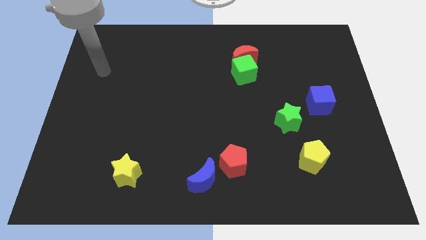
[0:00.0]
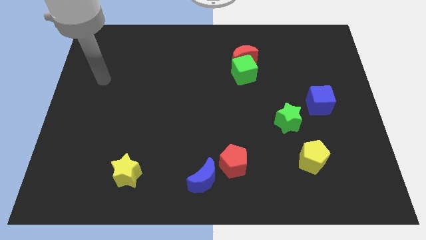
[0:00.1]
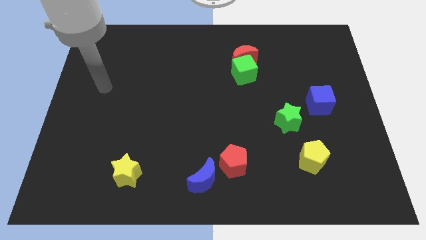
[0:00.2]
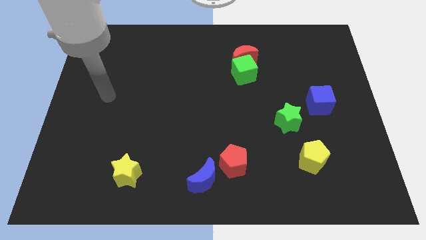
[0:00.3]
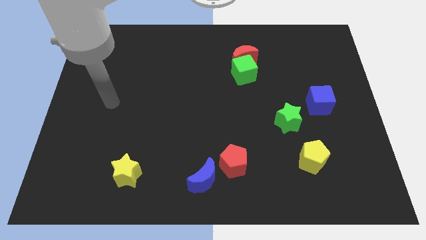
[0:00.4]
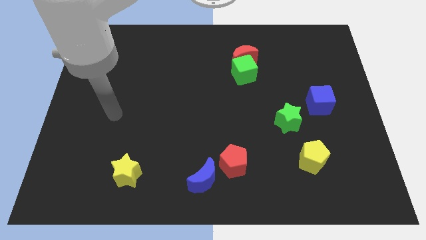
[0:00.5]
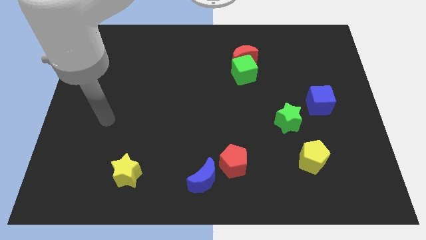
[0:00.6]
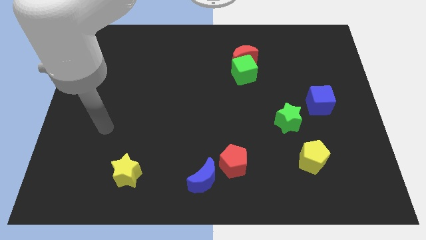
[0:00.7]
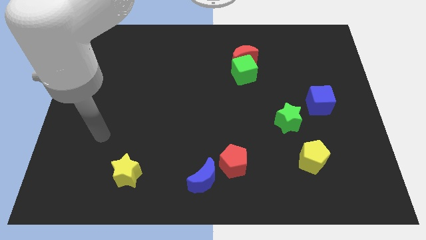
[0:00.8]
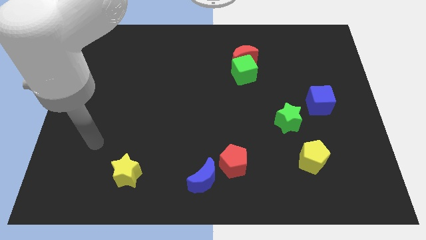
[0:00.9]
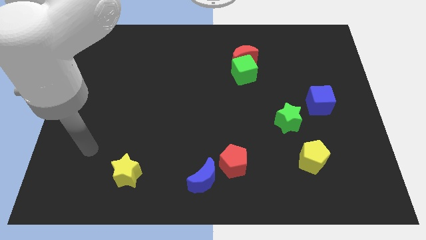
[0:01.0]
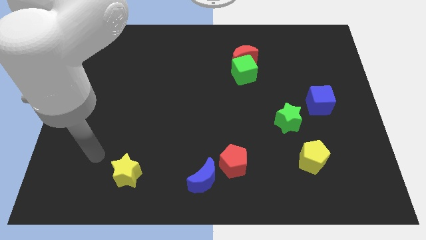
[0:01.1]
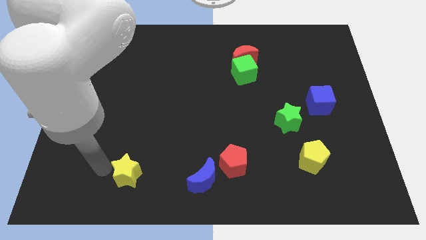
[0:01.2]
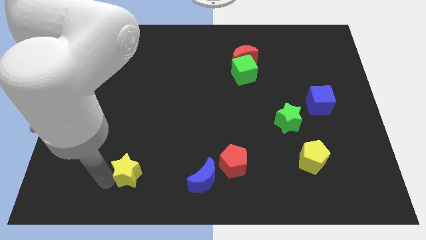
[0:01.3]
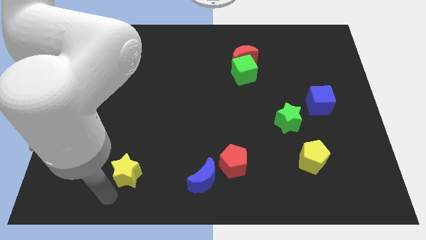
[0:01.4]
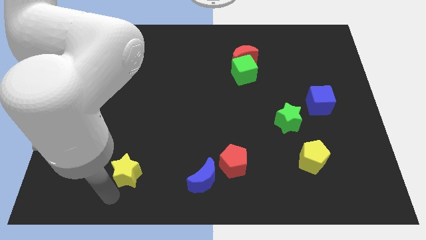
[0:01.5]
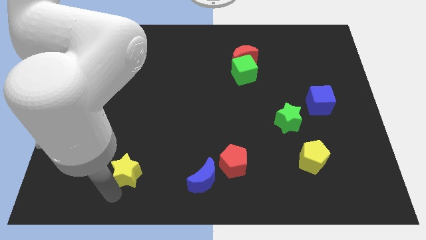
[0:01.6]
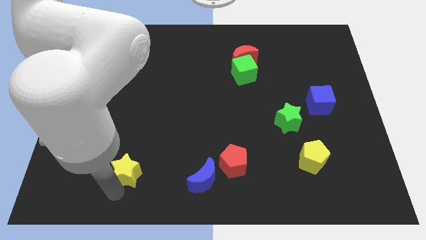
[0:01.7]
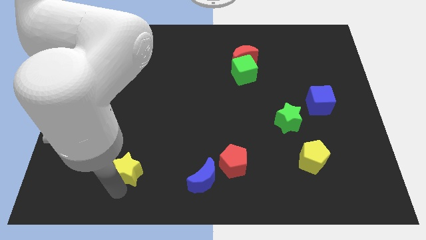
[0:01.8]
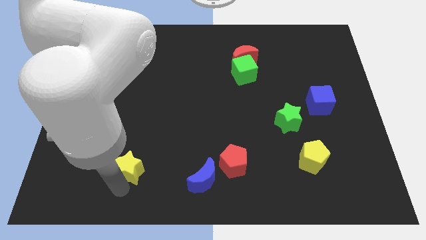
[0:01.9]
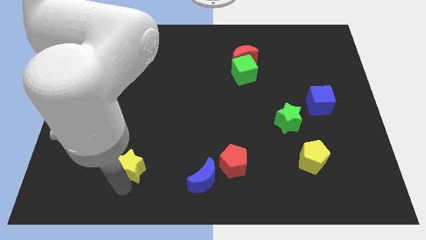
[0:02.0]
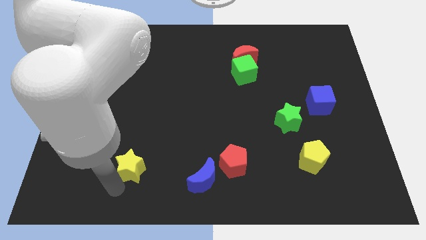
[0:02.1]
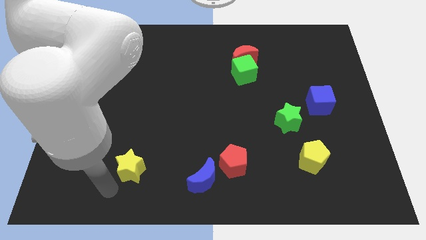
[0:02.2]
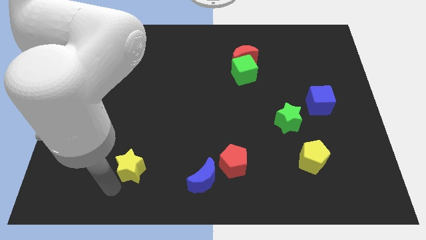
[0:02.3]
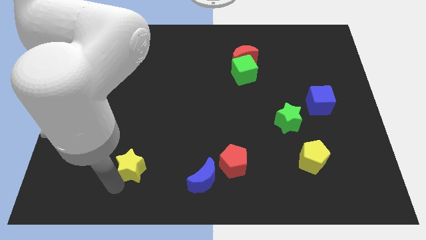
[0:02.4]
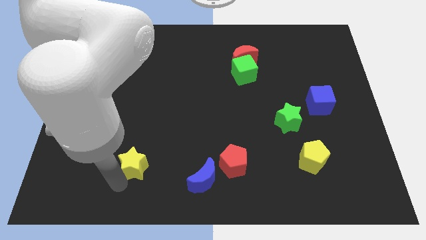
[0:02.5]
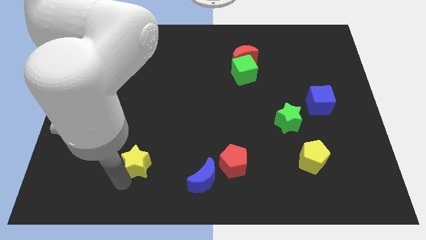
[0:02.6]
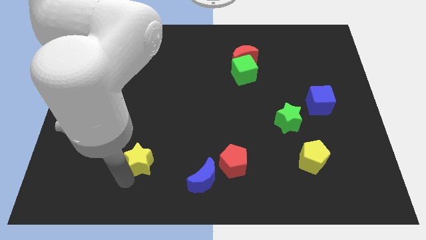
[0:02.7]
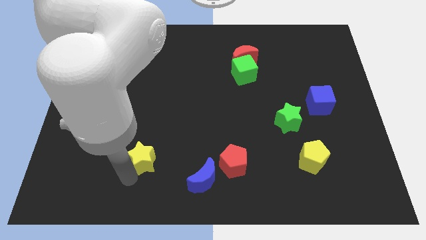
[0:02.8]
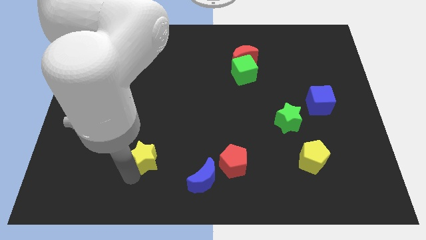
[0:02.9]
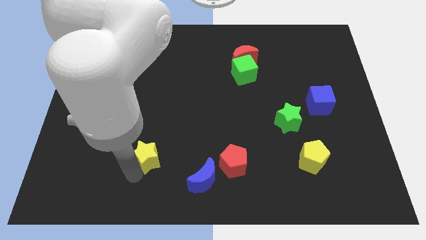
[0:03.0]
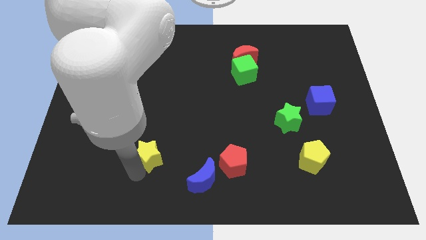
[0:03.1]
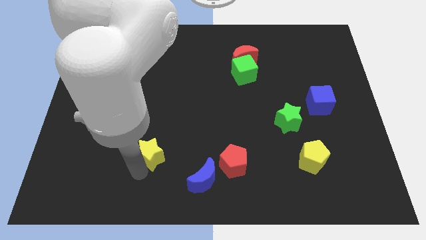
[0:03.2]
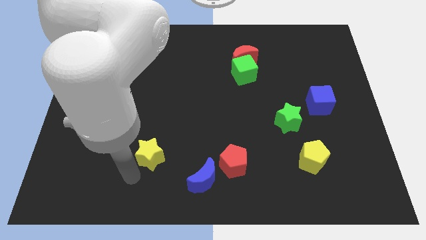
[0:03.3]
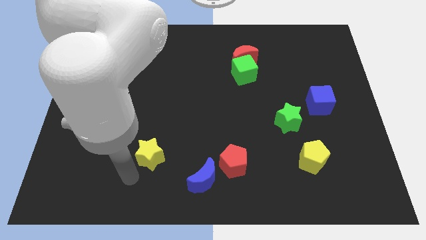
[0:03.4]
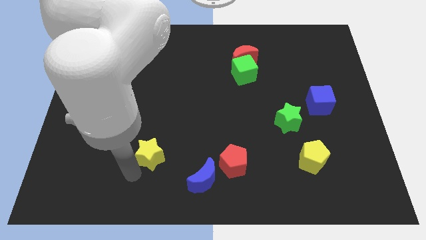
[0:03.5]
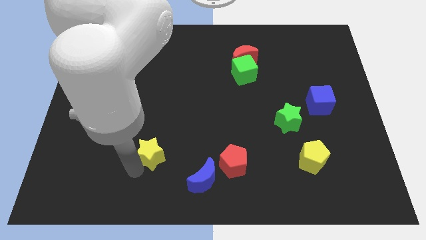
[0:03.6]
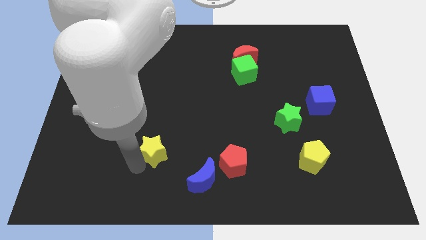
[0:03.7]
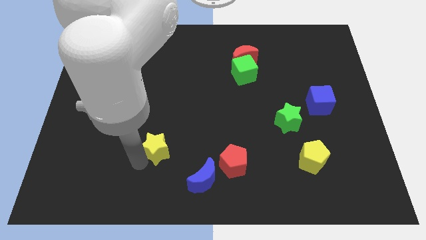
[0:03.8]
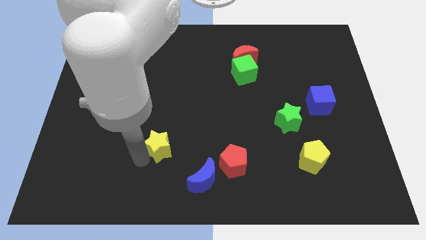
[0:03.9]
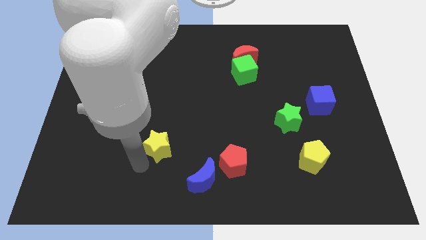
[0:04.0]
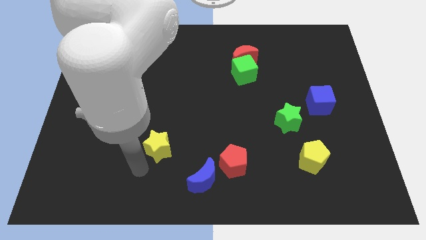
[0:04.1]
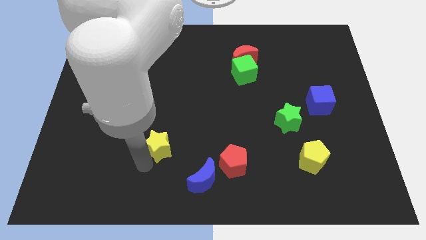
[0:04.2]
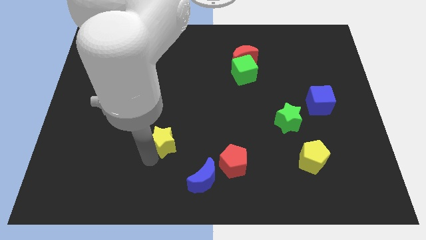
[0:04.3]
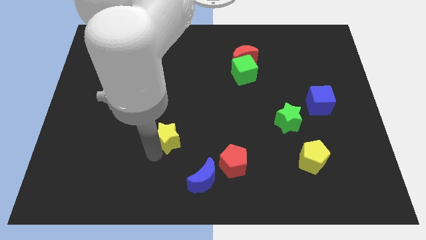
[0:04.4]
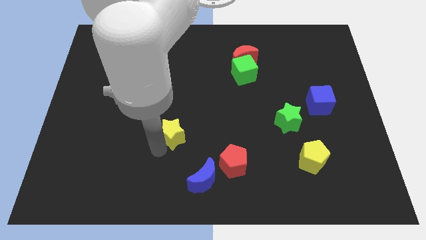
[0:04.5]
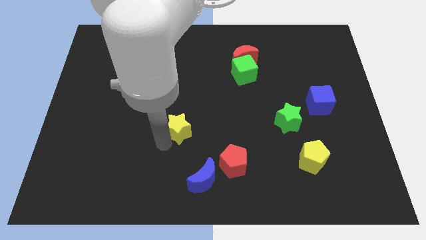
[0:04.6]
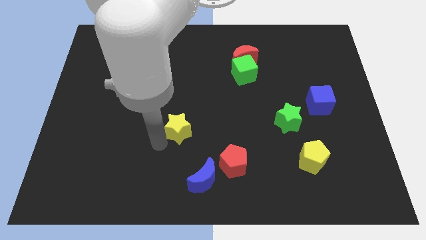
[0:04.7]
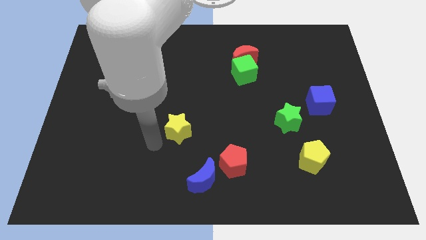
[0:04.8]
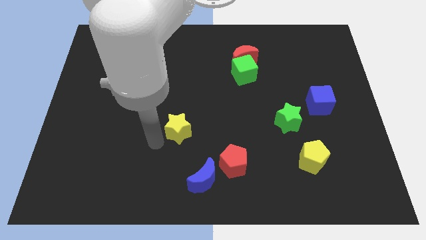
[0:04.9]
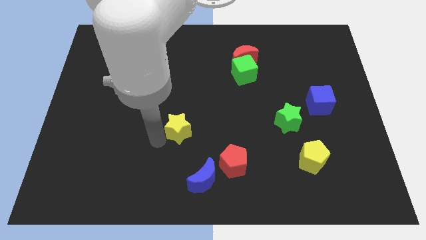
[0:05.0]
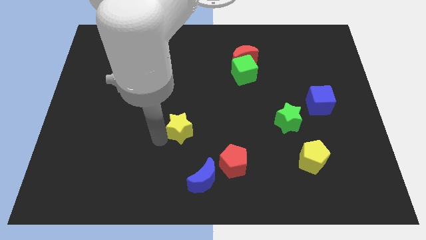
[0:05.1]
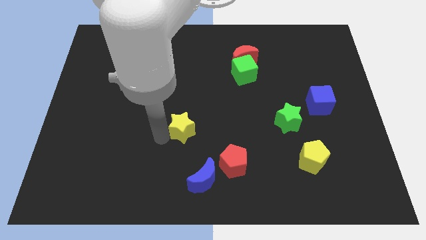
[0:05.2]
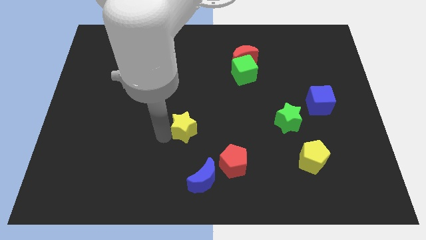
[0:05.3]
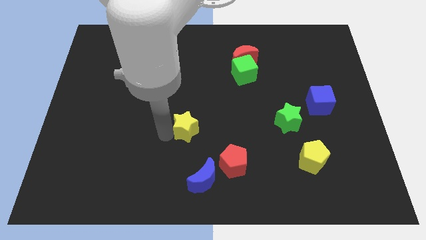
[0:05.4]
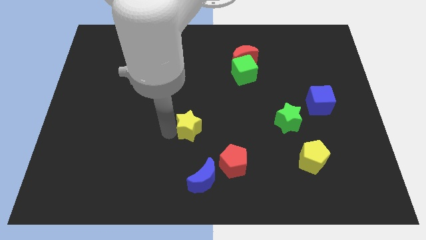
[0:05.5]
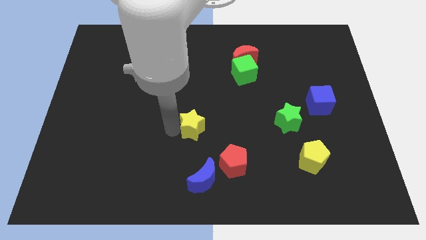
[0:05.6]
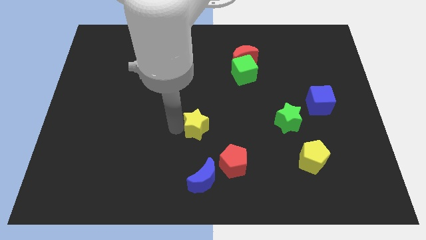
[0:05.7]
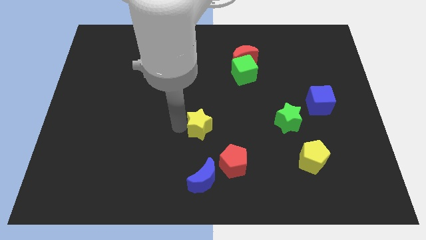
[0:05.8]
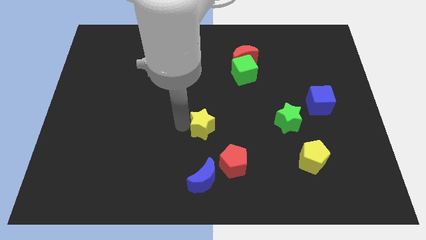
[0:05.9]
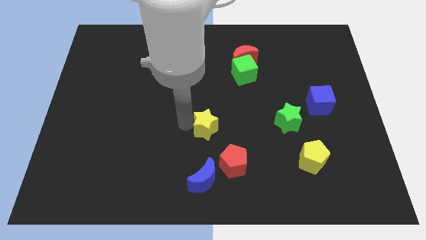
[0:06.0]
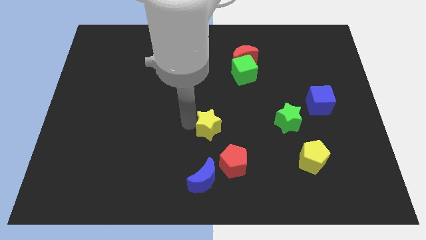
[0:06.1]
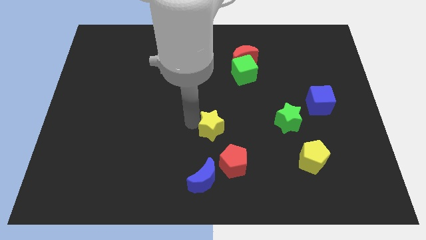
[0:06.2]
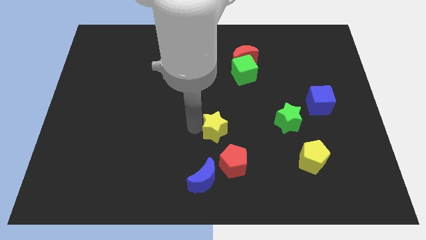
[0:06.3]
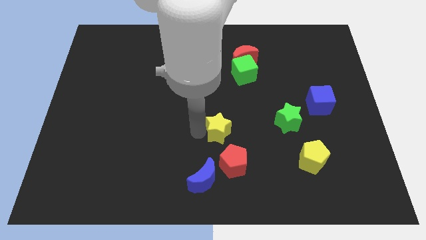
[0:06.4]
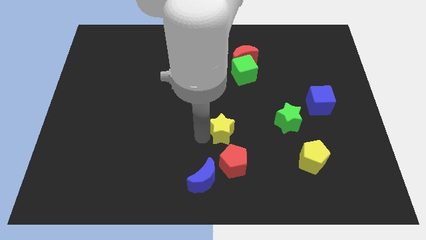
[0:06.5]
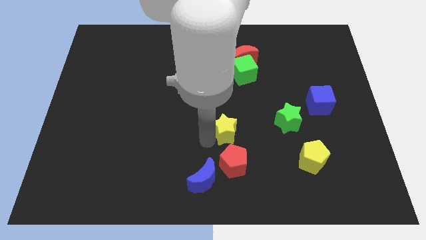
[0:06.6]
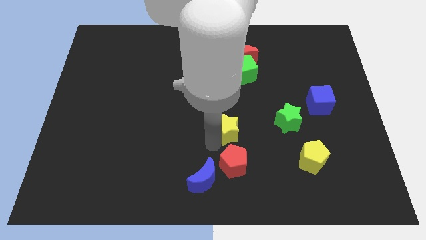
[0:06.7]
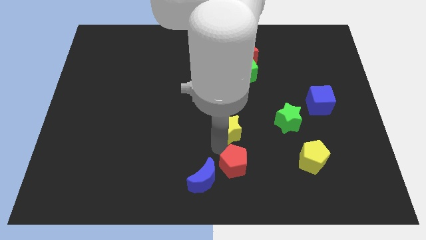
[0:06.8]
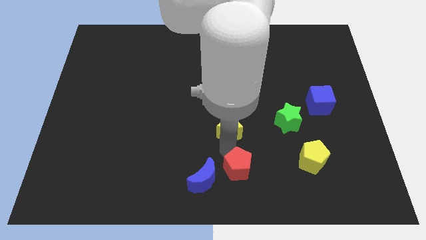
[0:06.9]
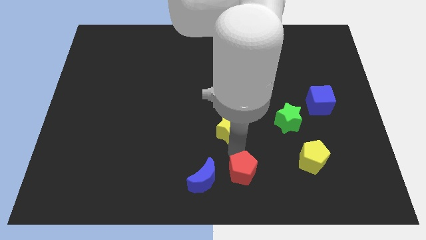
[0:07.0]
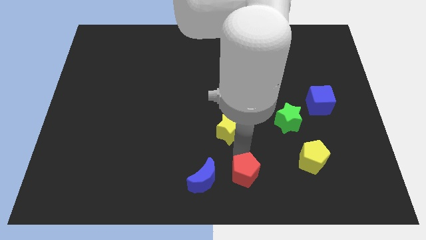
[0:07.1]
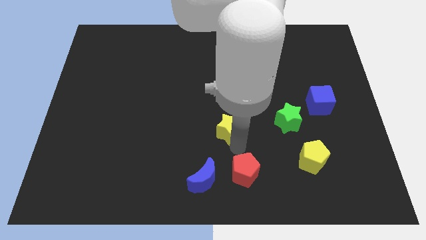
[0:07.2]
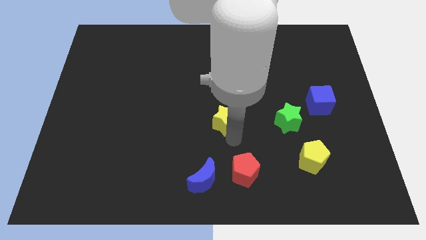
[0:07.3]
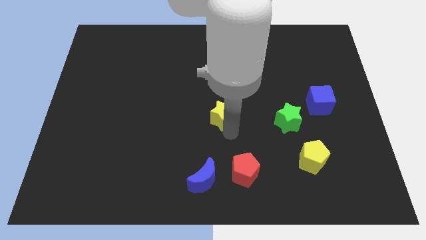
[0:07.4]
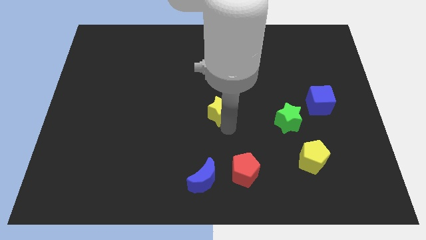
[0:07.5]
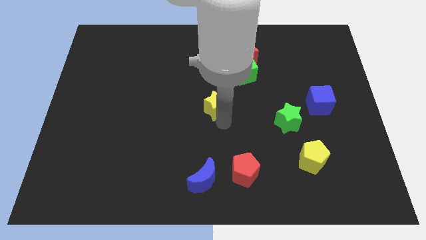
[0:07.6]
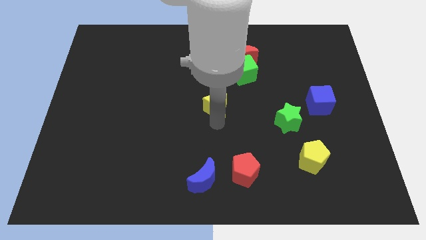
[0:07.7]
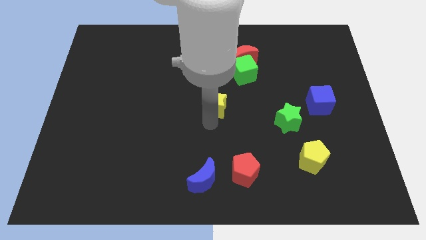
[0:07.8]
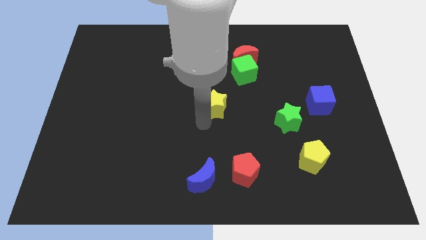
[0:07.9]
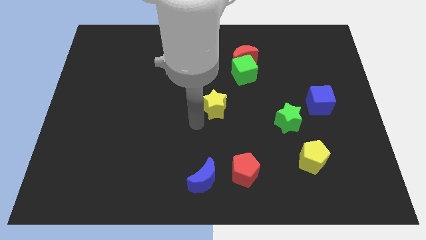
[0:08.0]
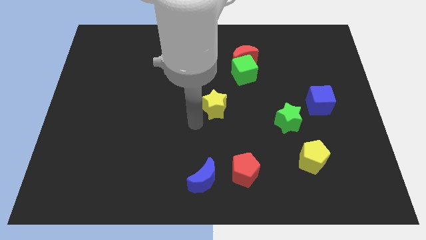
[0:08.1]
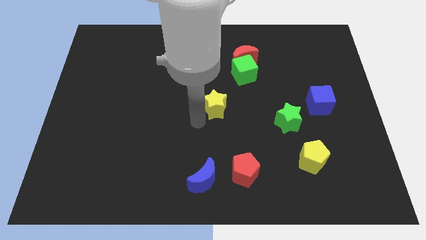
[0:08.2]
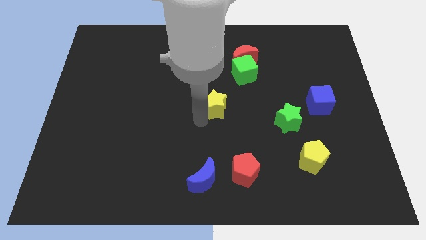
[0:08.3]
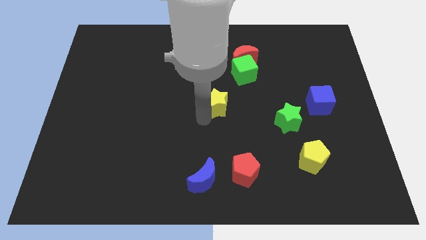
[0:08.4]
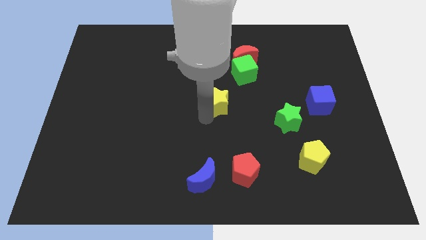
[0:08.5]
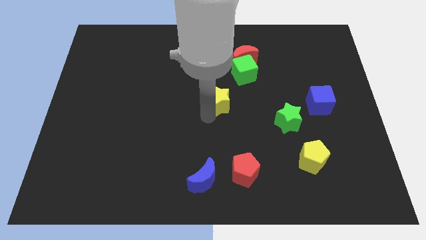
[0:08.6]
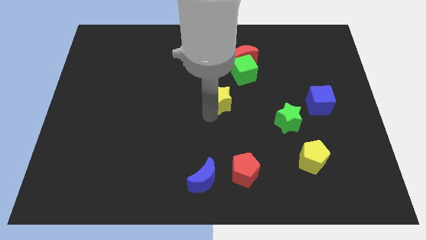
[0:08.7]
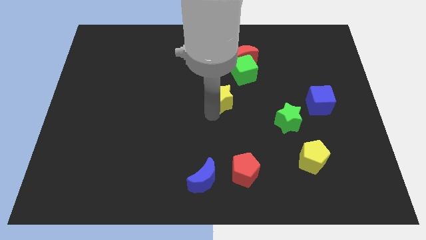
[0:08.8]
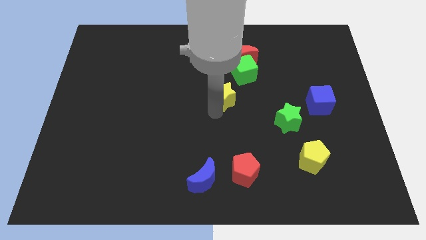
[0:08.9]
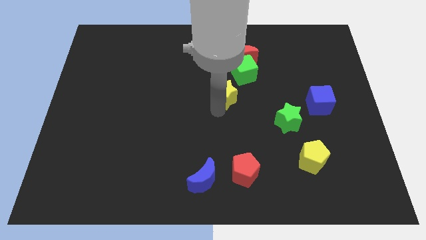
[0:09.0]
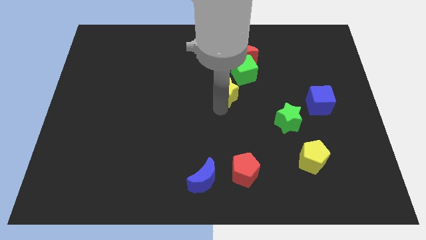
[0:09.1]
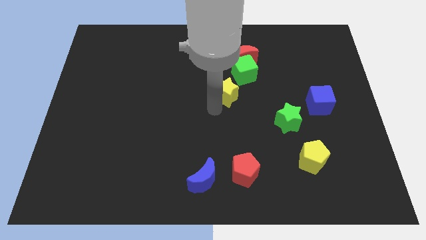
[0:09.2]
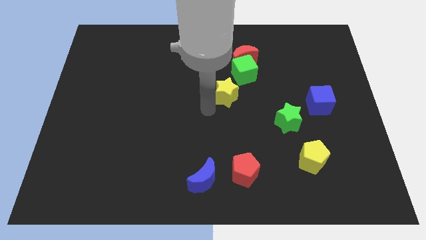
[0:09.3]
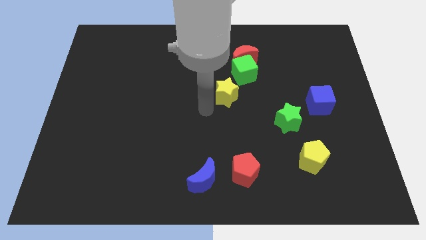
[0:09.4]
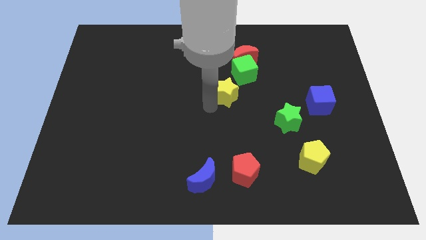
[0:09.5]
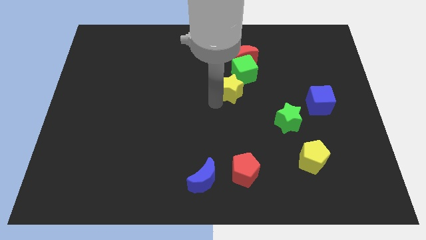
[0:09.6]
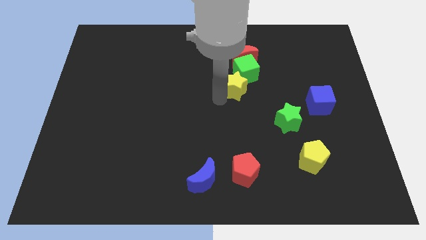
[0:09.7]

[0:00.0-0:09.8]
put the yellow star close to the green cube
